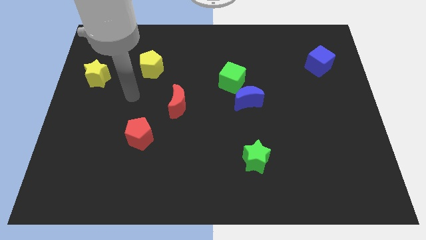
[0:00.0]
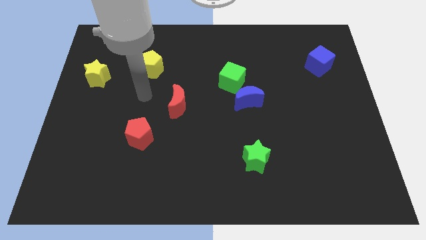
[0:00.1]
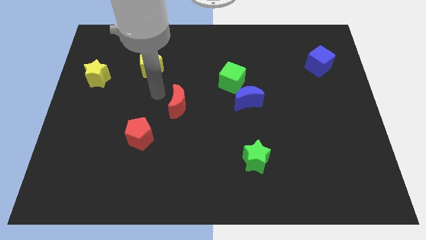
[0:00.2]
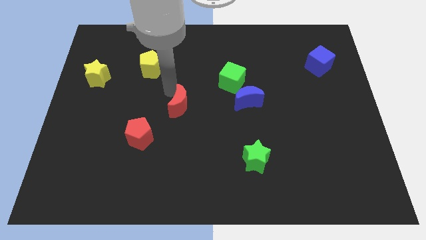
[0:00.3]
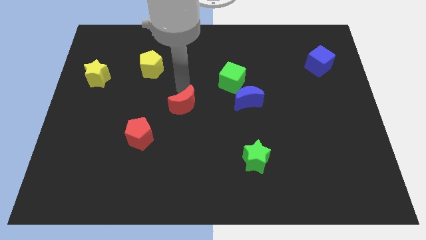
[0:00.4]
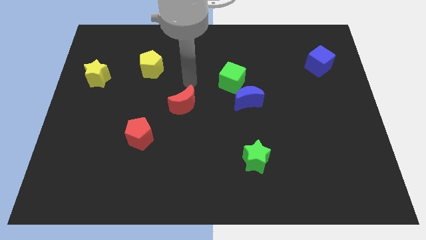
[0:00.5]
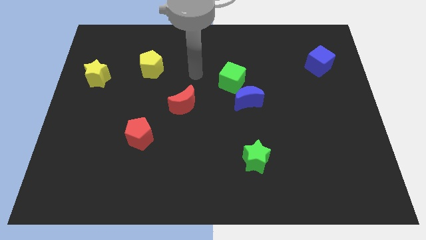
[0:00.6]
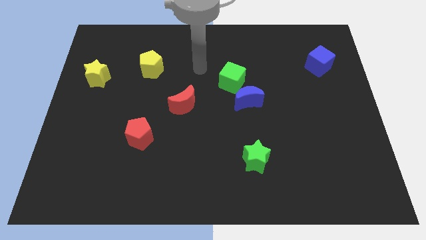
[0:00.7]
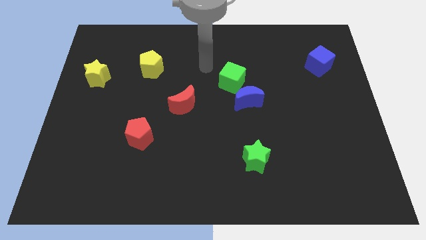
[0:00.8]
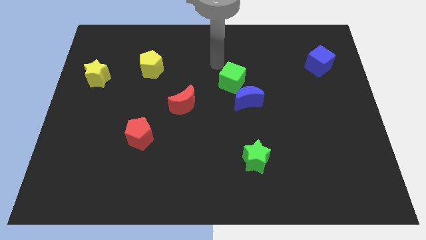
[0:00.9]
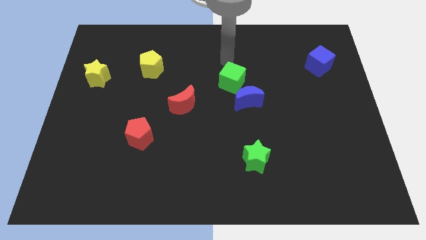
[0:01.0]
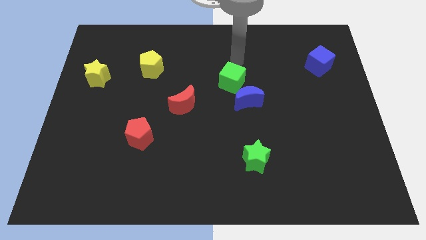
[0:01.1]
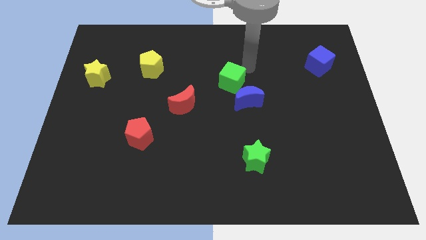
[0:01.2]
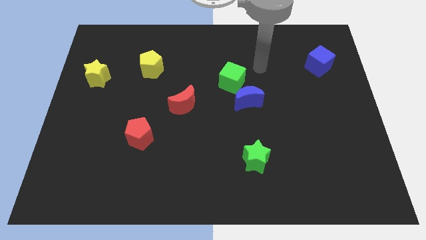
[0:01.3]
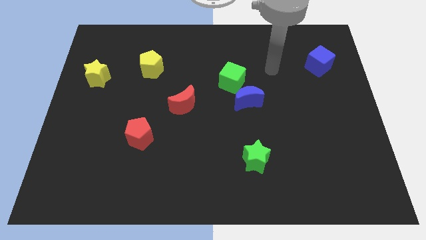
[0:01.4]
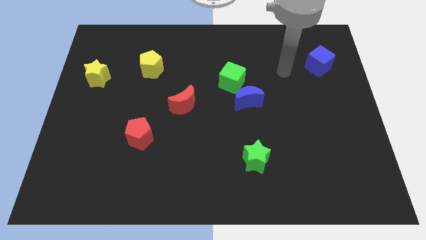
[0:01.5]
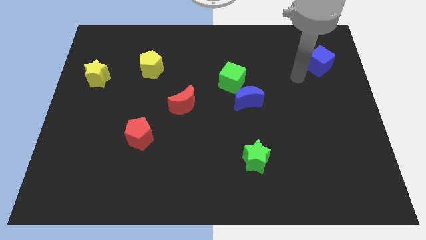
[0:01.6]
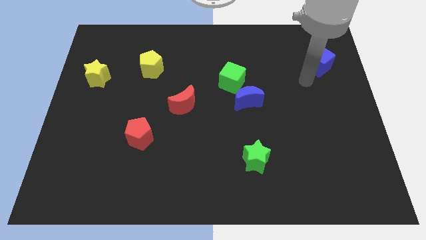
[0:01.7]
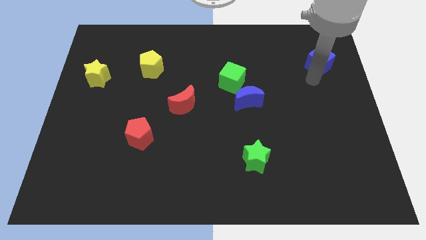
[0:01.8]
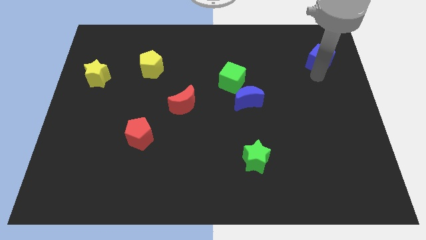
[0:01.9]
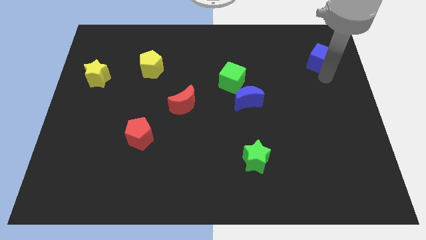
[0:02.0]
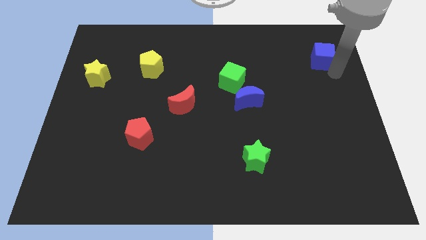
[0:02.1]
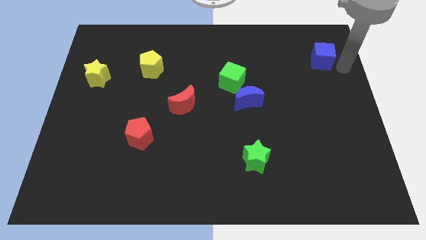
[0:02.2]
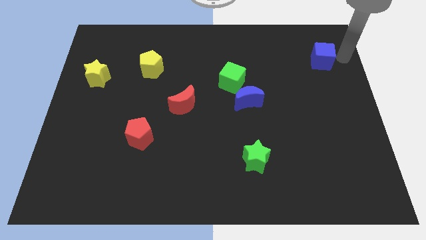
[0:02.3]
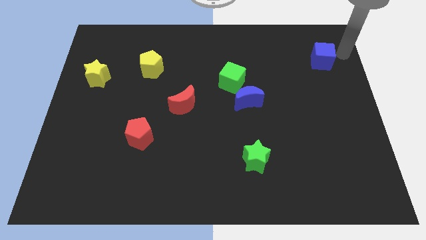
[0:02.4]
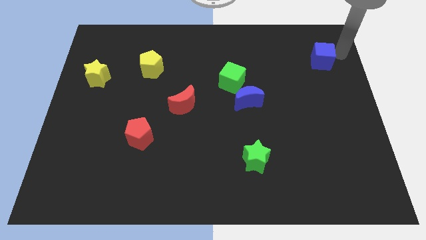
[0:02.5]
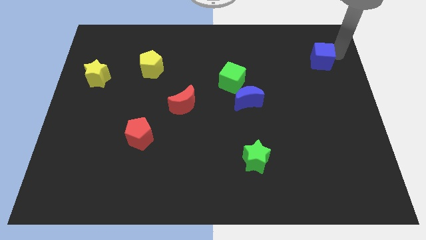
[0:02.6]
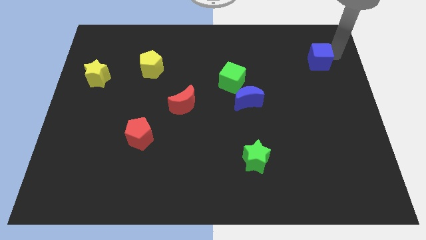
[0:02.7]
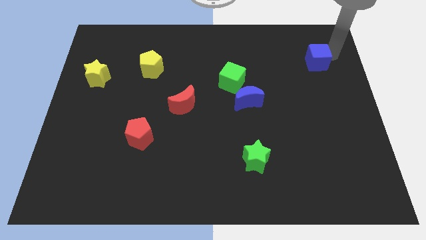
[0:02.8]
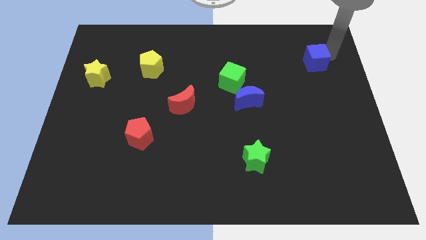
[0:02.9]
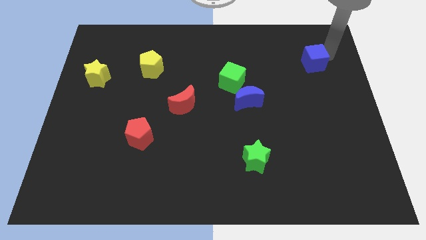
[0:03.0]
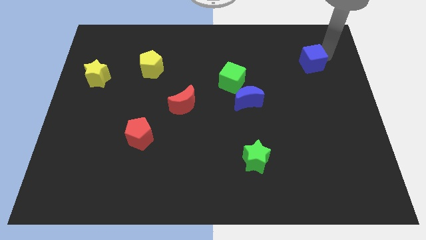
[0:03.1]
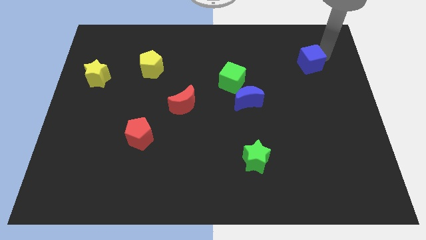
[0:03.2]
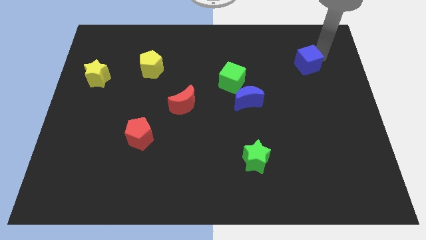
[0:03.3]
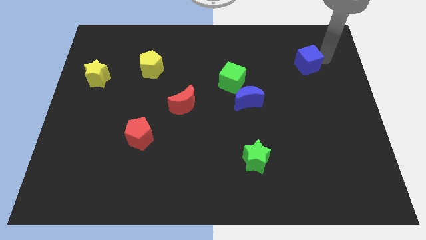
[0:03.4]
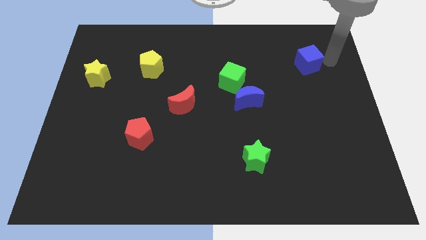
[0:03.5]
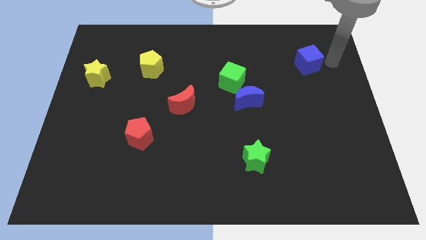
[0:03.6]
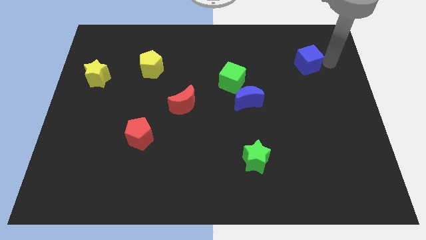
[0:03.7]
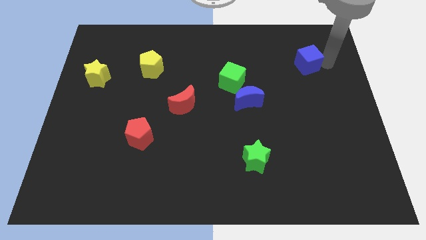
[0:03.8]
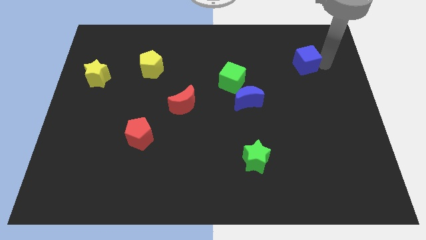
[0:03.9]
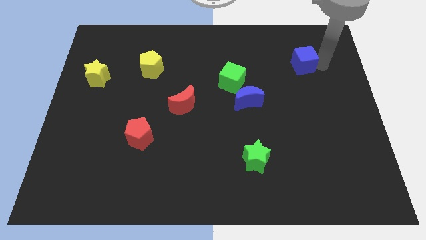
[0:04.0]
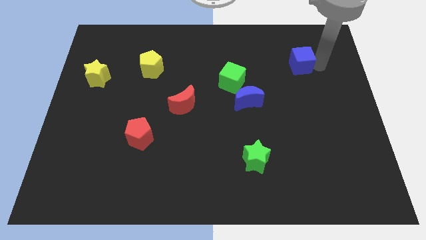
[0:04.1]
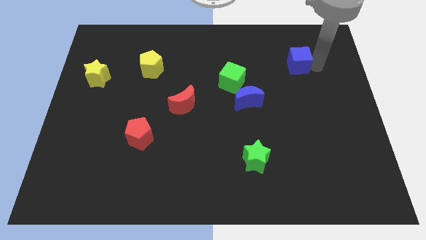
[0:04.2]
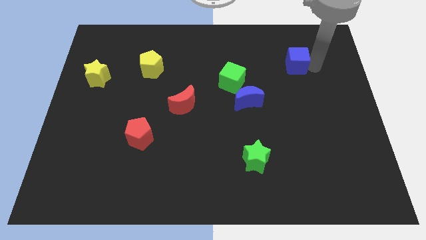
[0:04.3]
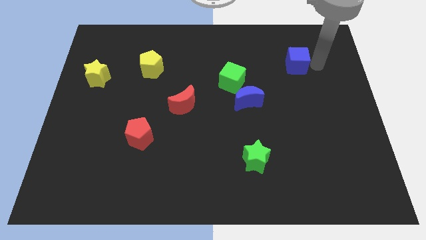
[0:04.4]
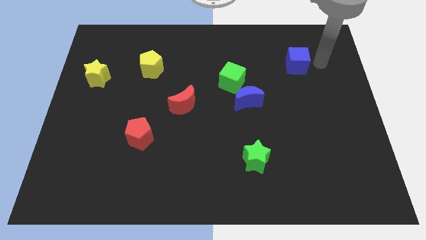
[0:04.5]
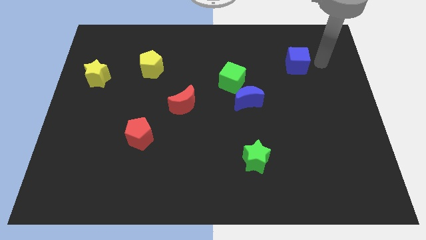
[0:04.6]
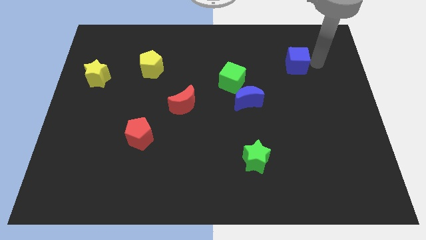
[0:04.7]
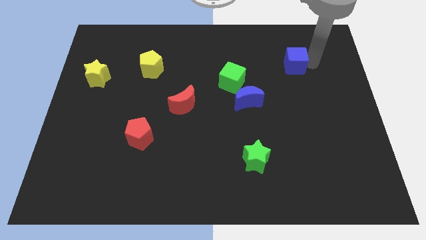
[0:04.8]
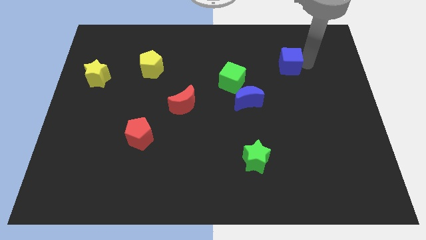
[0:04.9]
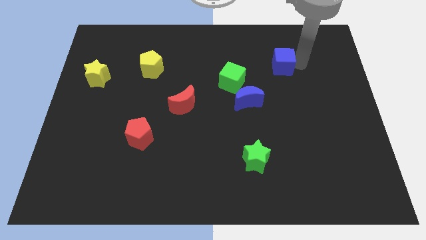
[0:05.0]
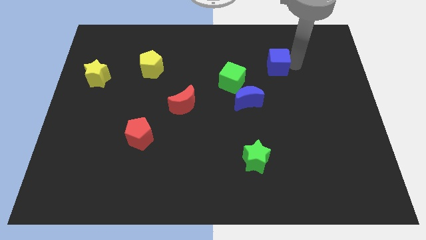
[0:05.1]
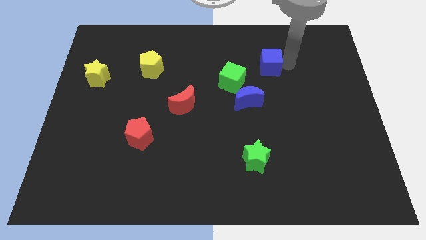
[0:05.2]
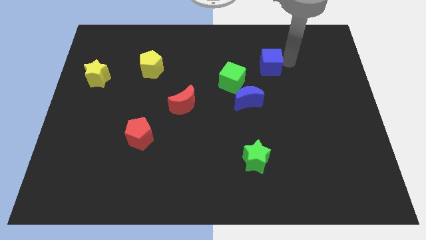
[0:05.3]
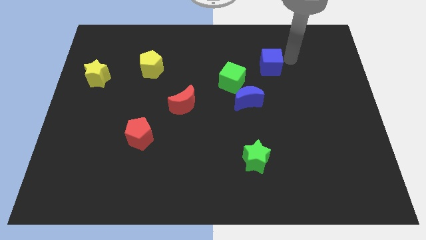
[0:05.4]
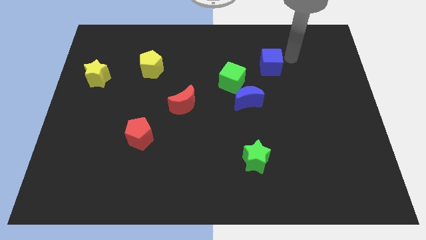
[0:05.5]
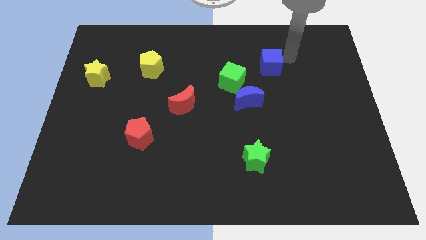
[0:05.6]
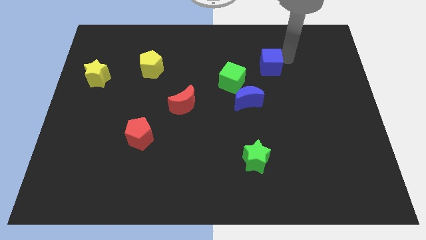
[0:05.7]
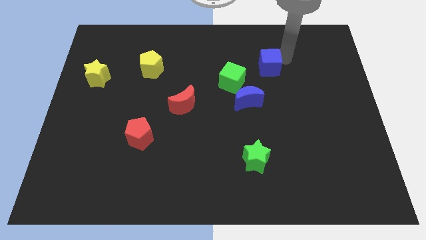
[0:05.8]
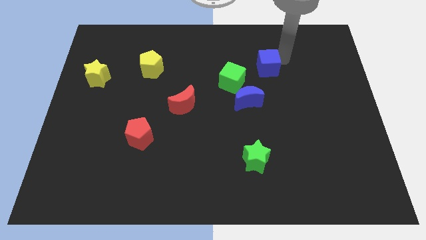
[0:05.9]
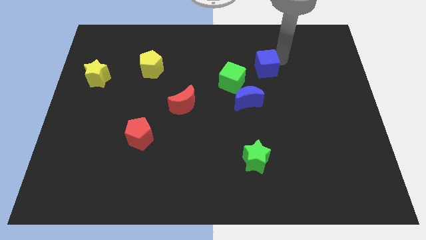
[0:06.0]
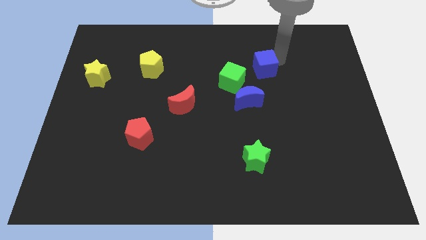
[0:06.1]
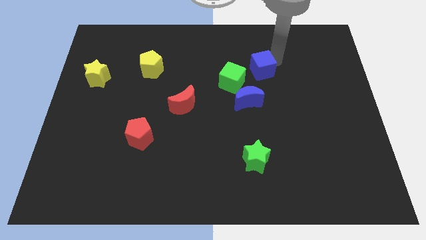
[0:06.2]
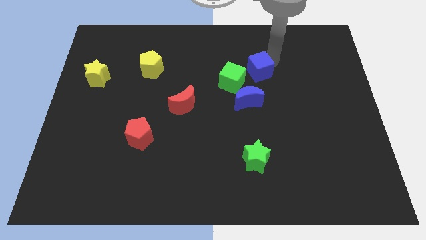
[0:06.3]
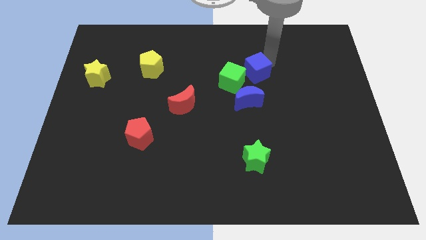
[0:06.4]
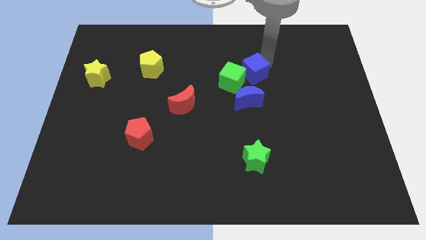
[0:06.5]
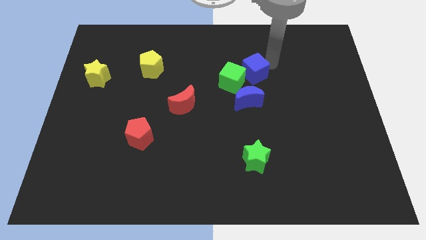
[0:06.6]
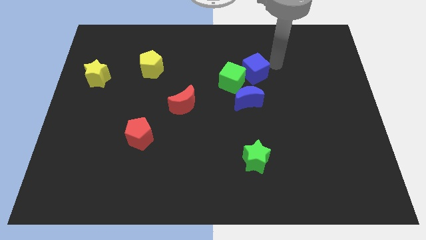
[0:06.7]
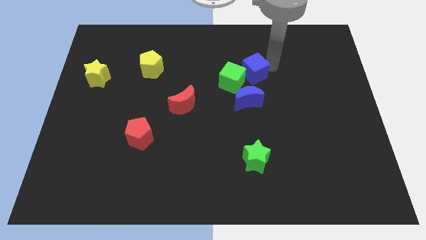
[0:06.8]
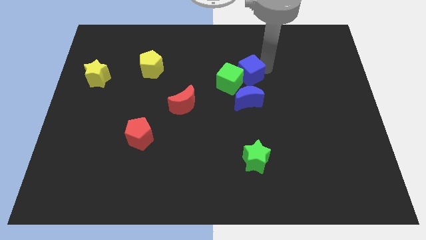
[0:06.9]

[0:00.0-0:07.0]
push the blue cube close to the green cube
